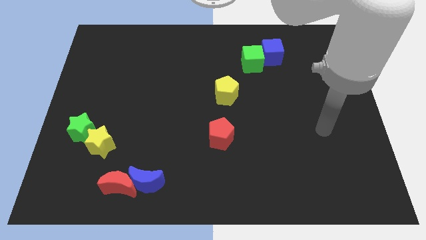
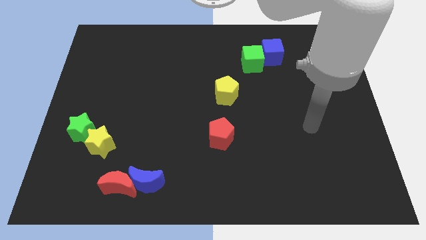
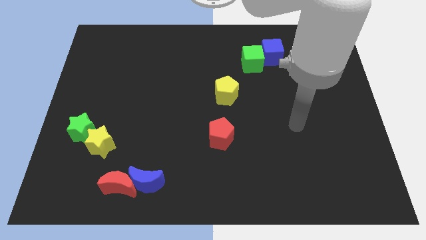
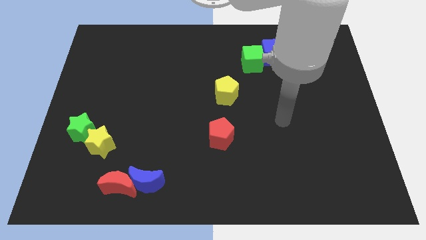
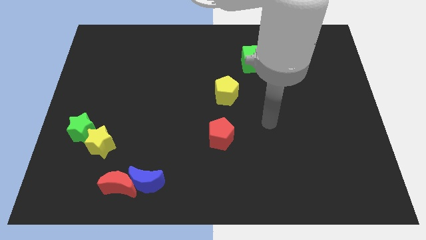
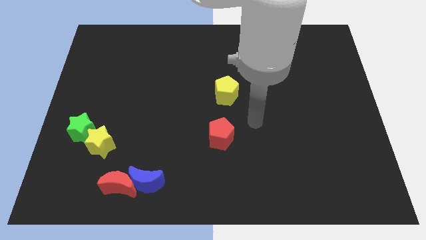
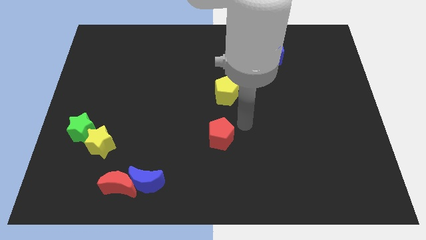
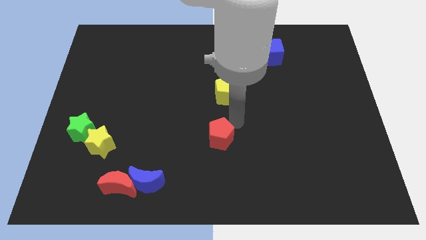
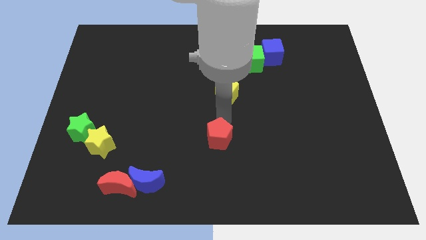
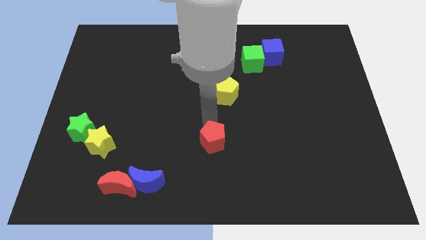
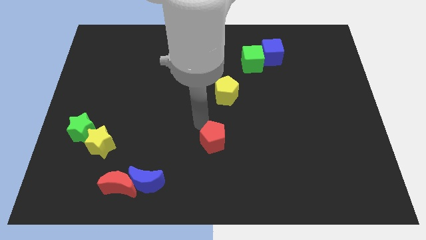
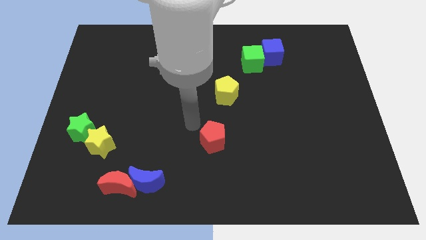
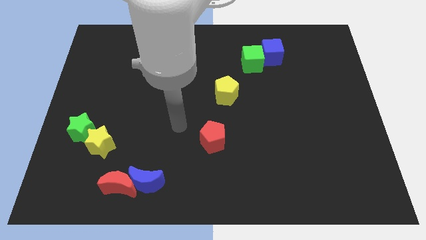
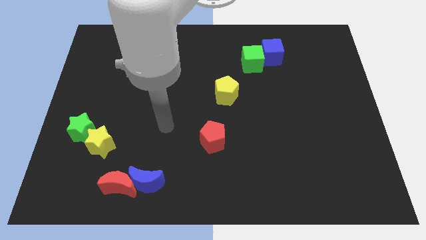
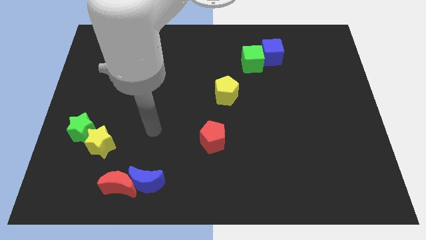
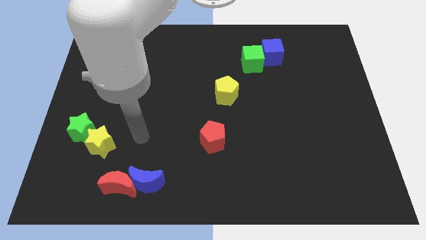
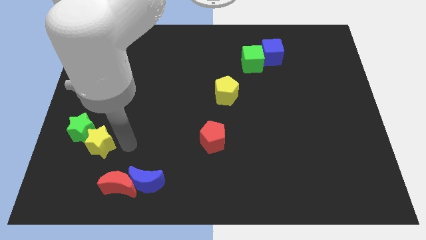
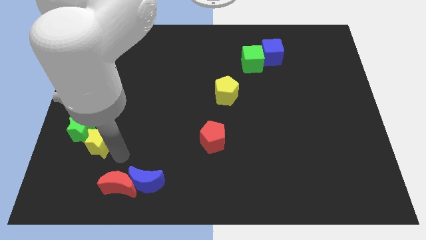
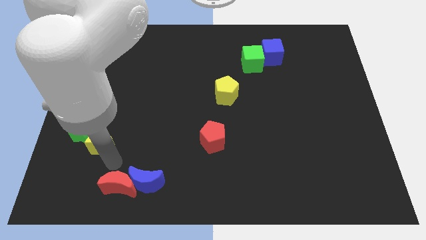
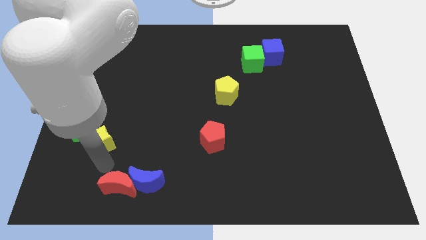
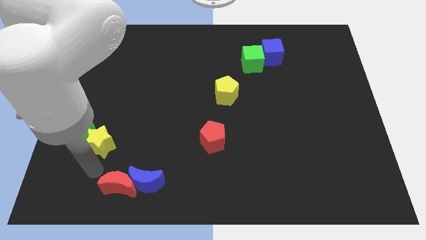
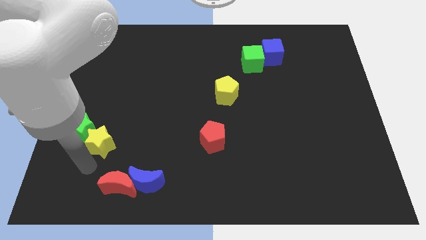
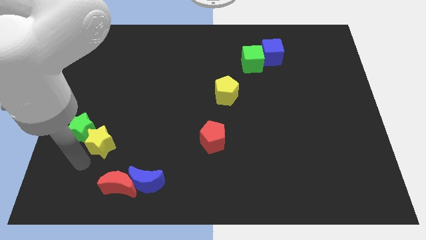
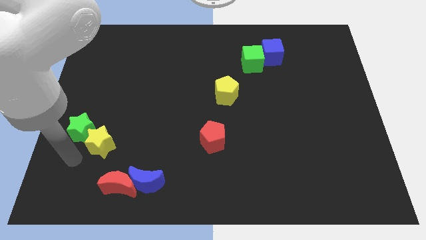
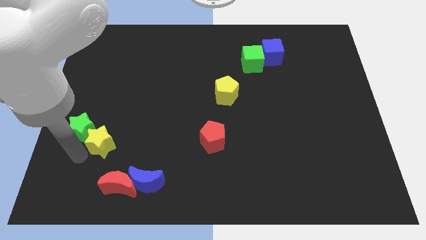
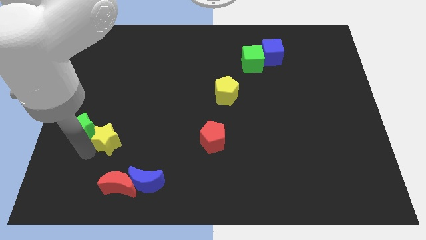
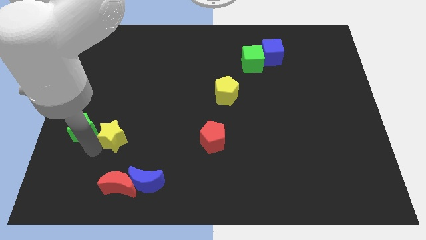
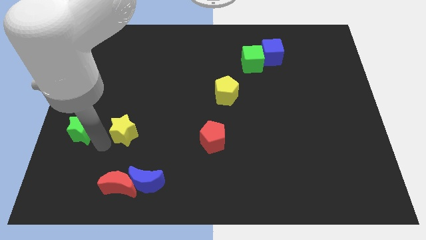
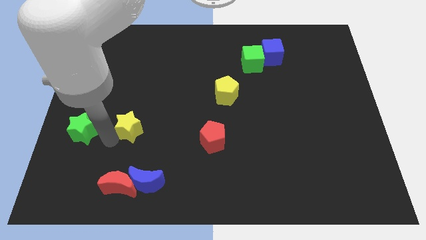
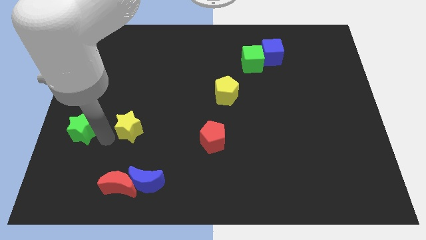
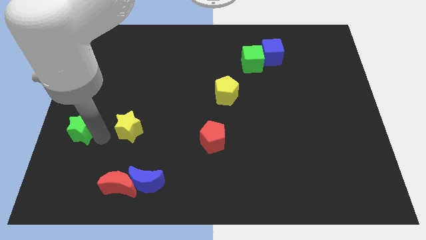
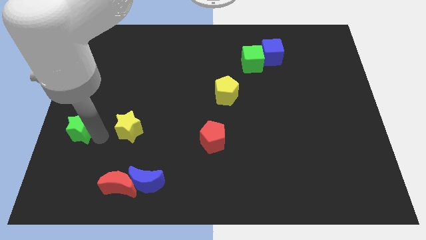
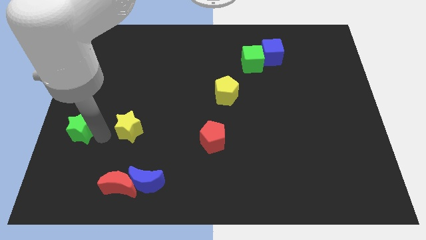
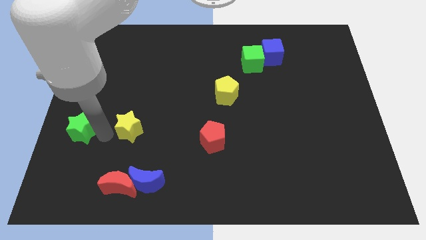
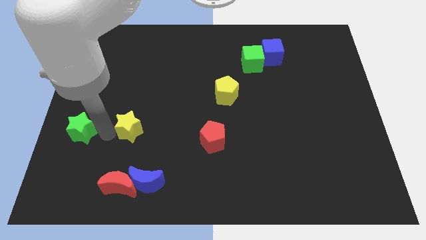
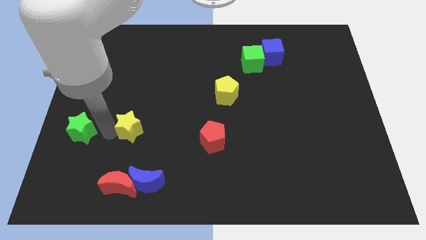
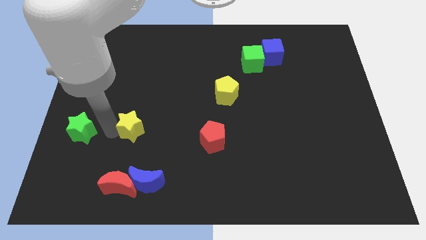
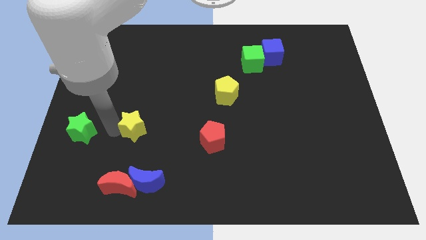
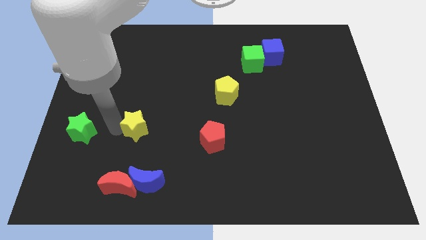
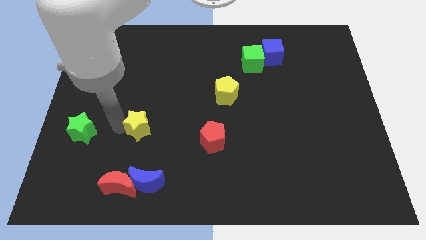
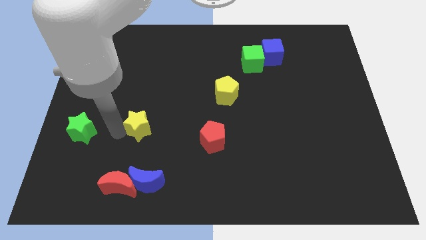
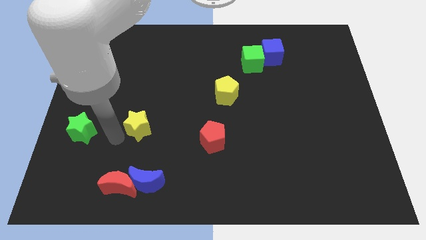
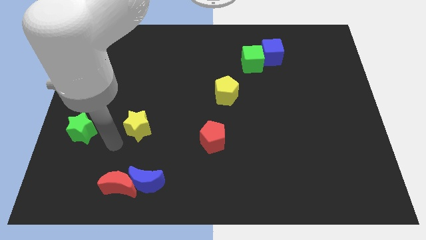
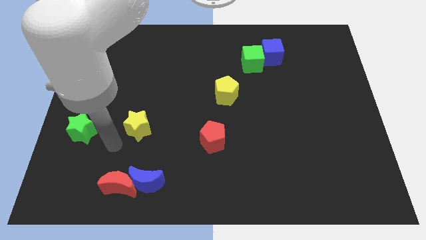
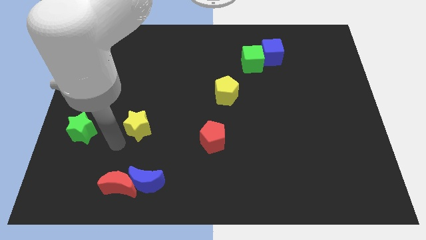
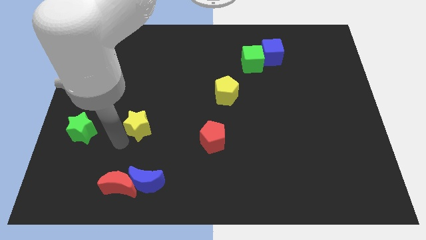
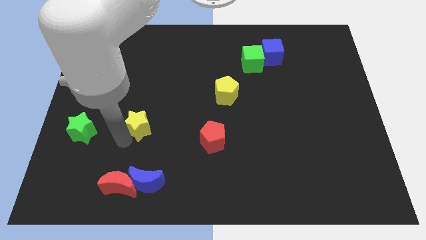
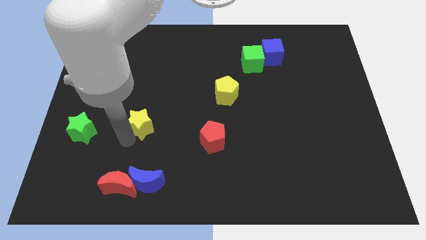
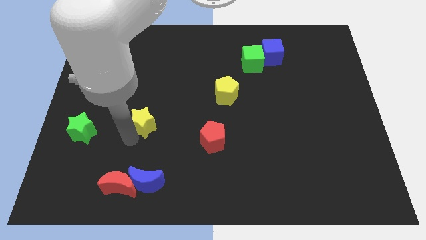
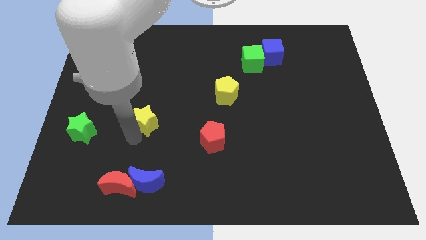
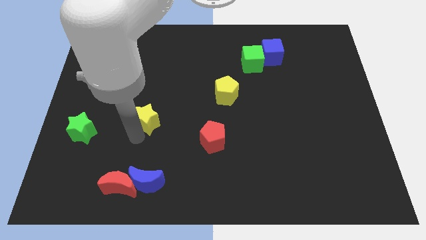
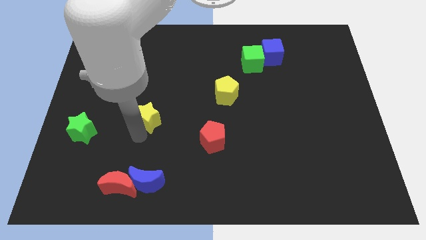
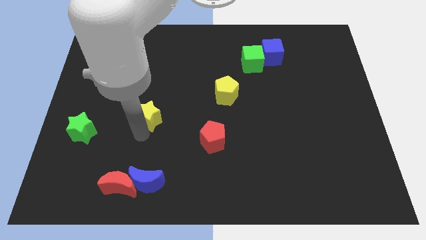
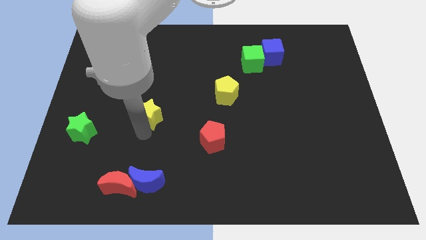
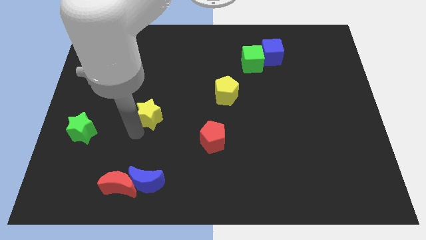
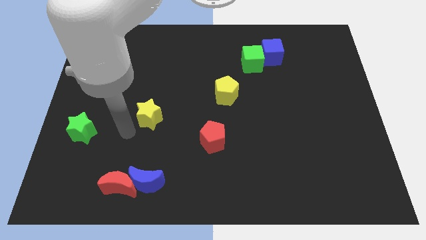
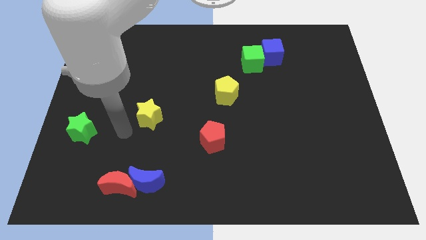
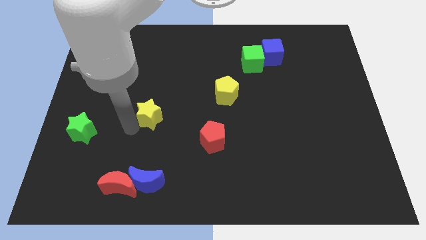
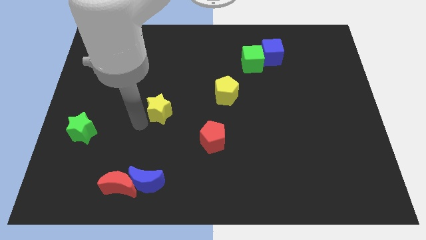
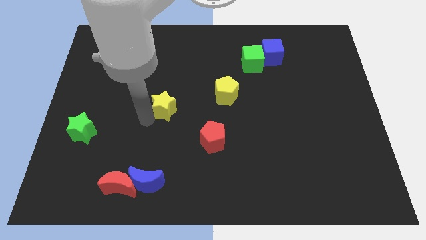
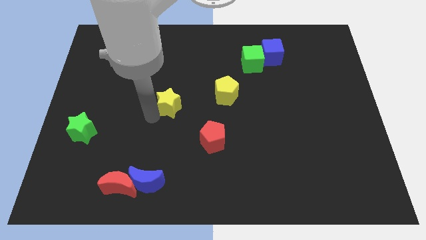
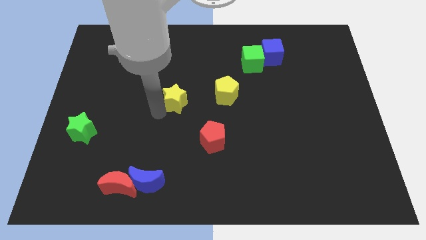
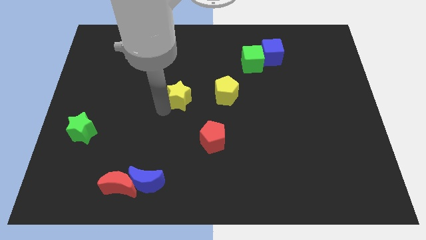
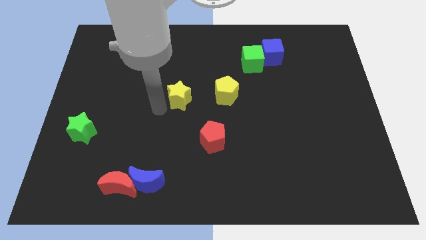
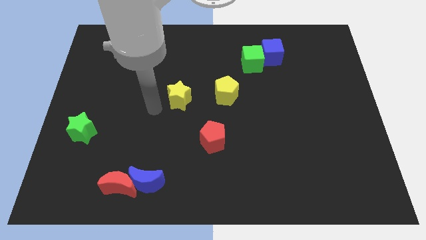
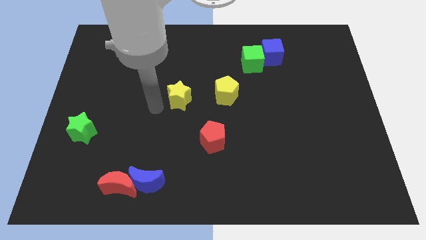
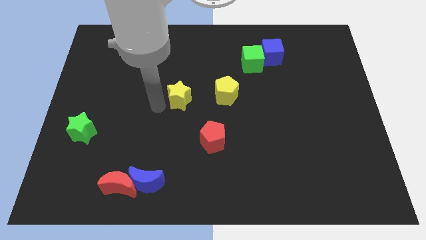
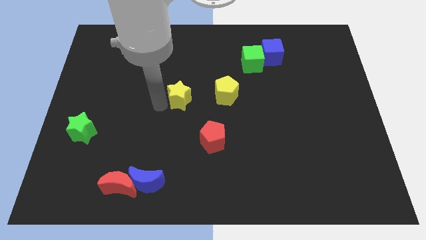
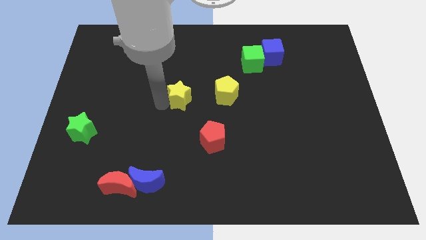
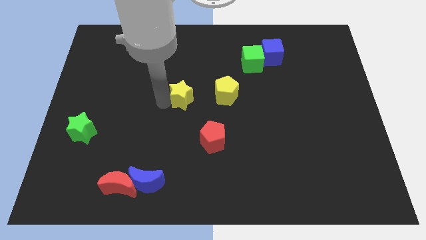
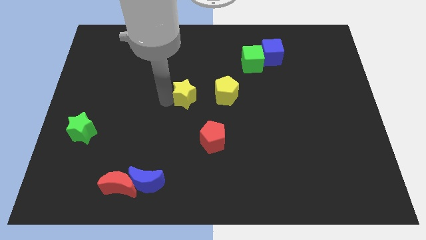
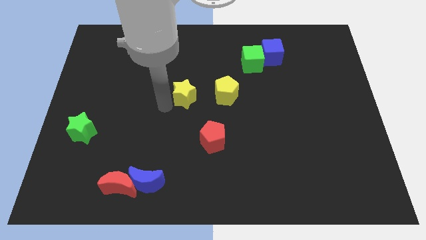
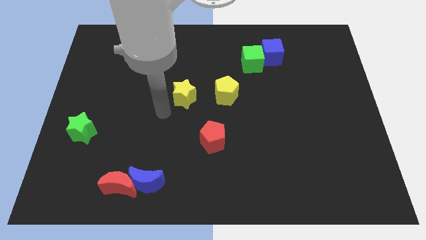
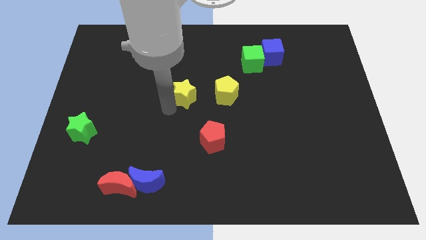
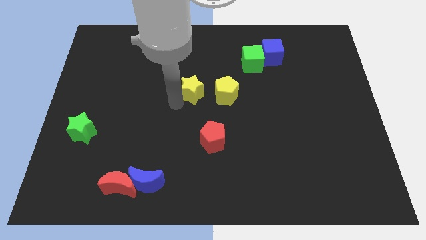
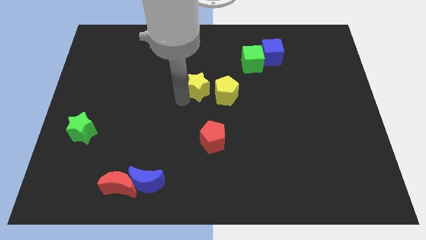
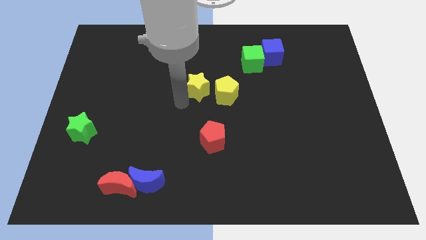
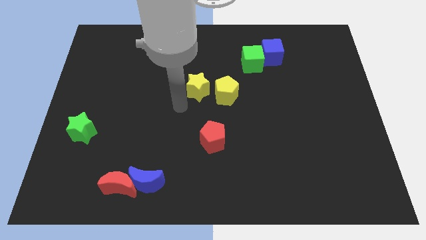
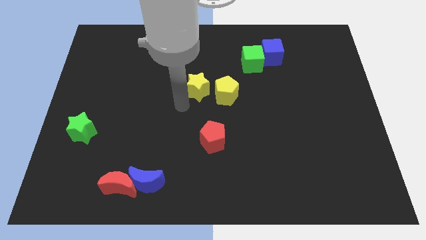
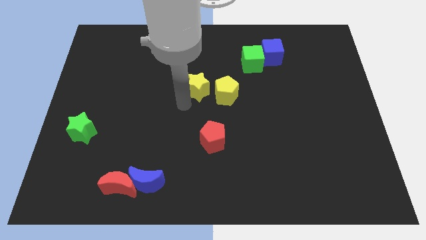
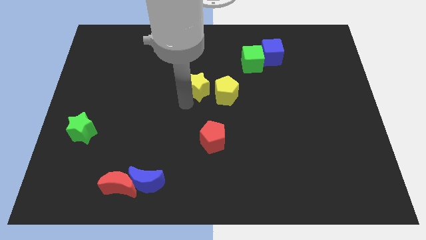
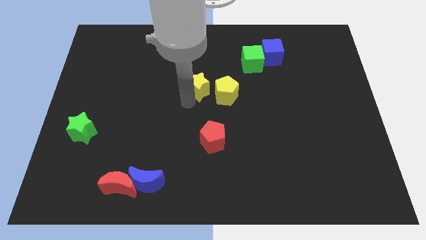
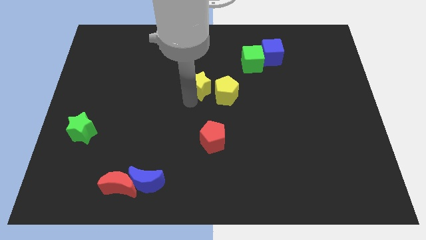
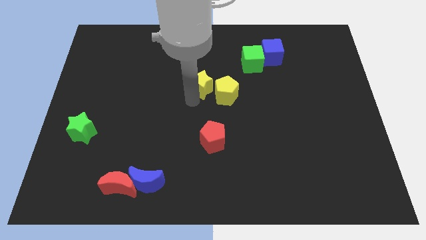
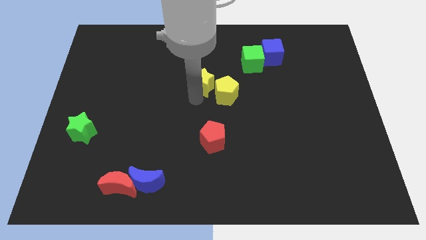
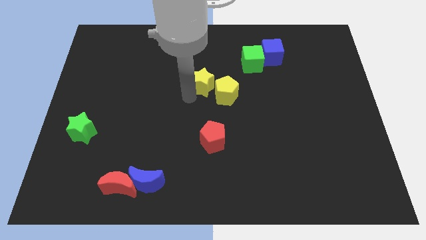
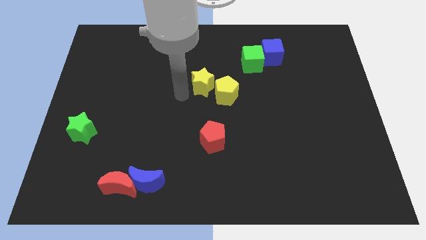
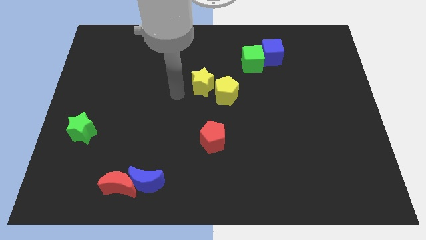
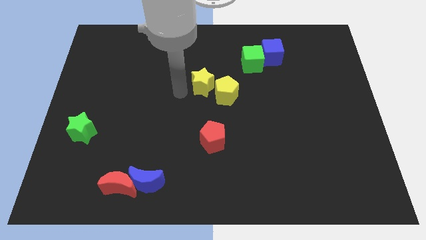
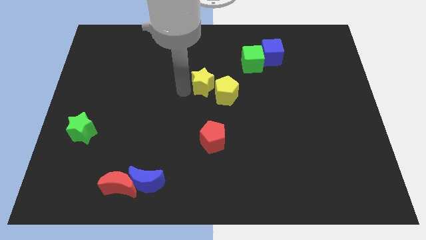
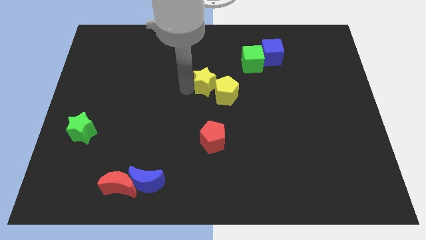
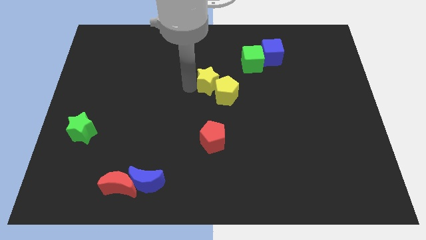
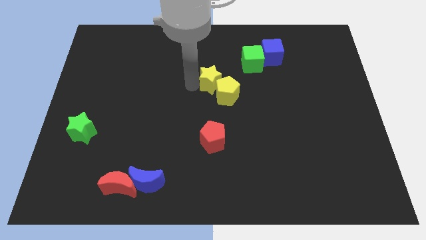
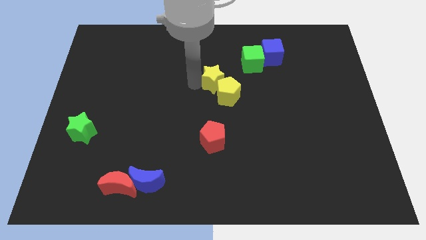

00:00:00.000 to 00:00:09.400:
push the yellow star to the bottom left side of the green cube
